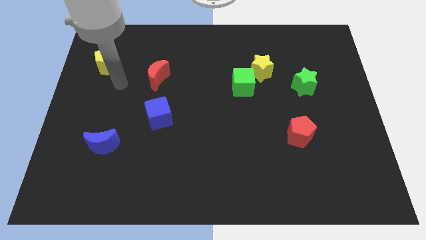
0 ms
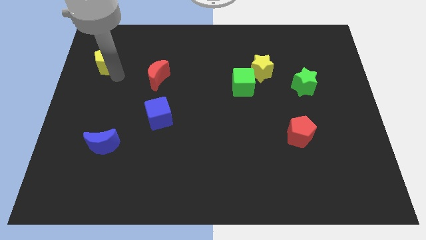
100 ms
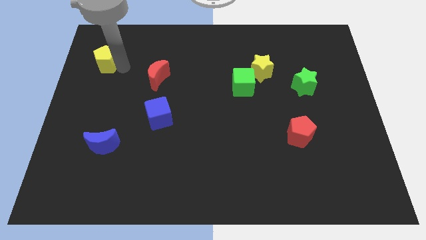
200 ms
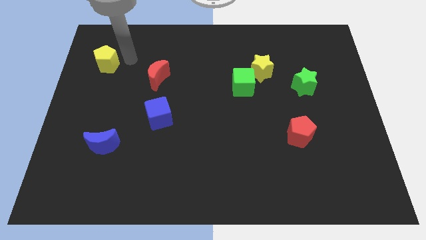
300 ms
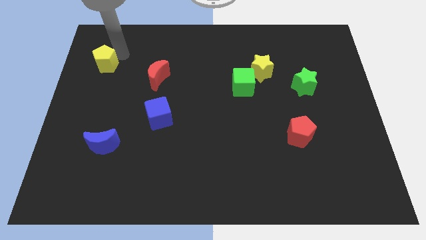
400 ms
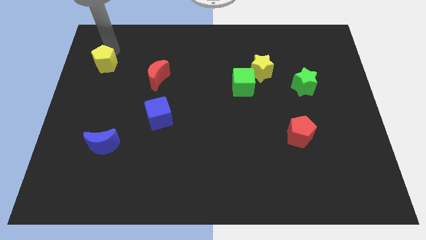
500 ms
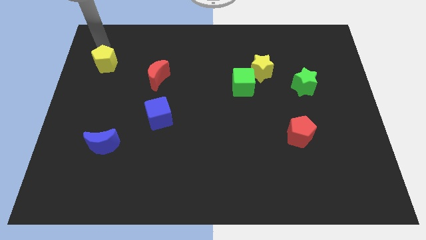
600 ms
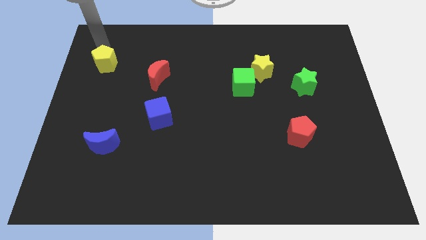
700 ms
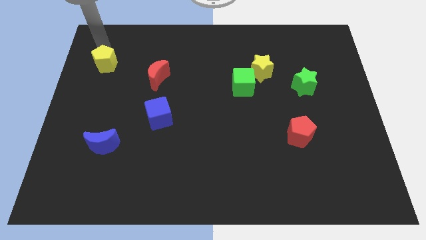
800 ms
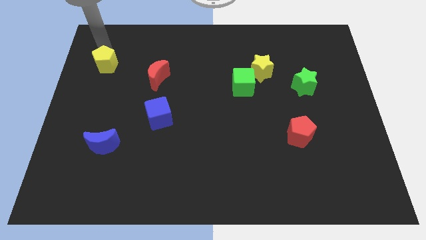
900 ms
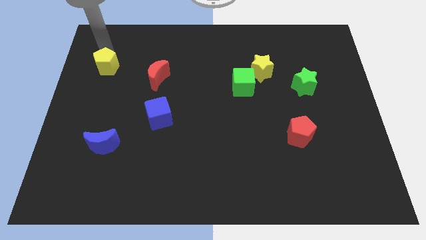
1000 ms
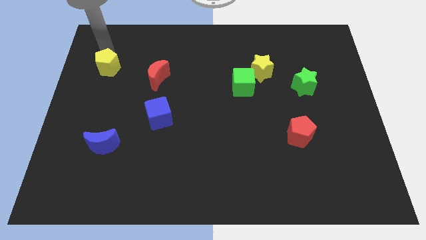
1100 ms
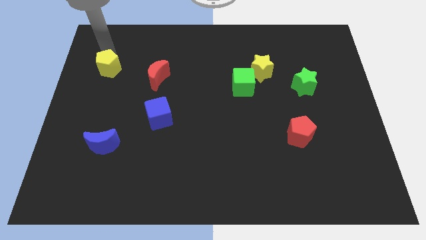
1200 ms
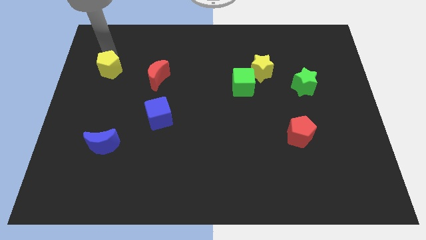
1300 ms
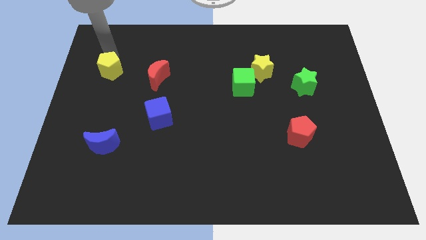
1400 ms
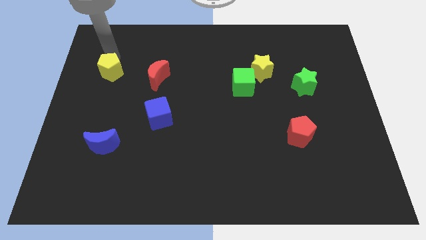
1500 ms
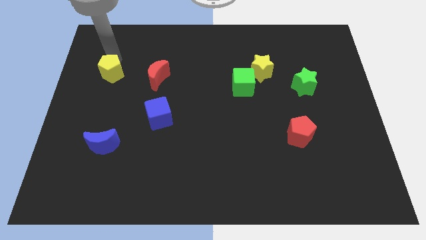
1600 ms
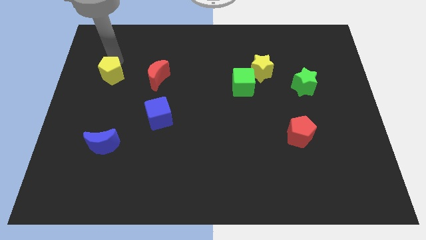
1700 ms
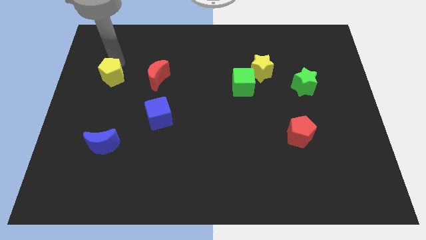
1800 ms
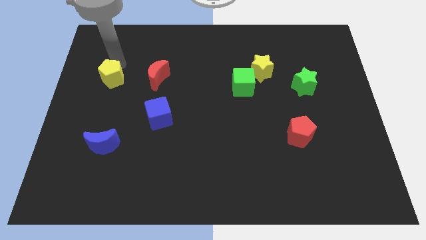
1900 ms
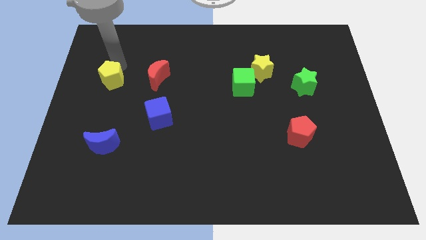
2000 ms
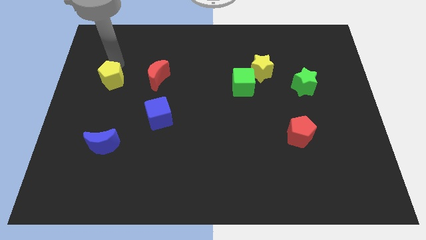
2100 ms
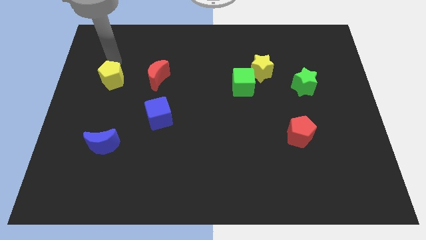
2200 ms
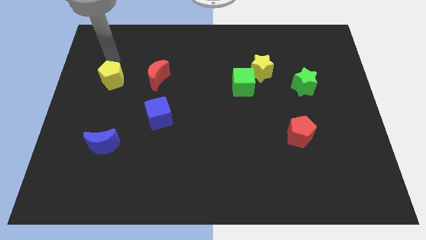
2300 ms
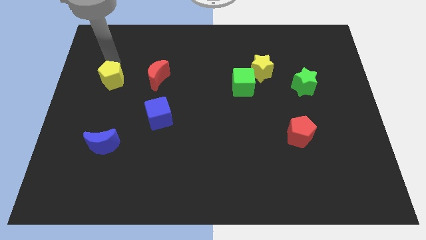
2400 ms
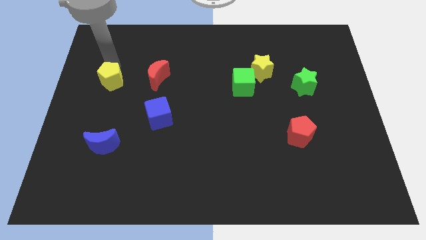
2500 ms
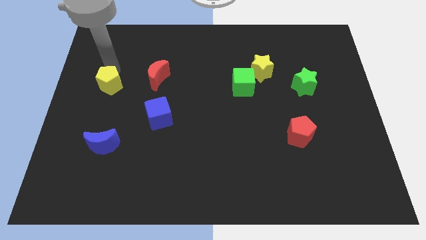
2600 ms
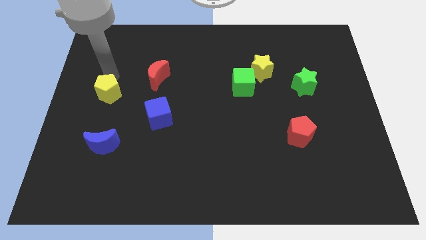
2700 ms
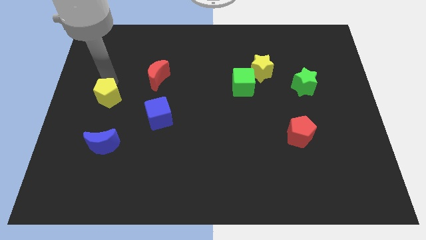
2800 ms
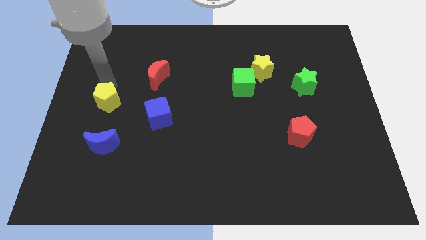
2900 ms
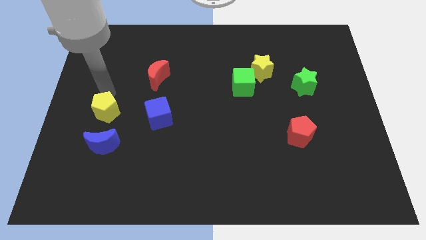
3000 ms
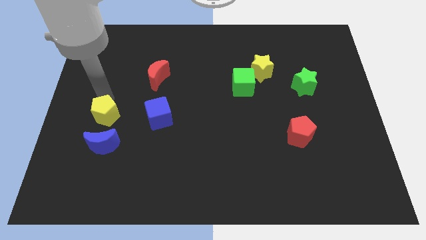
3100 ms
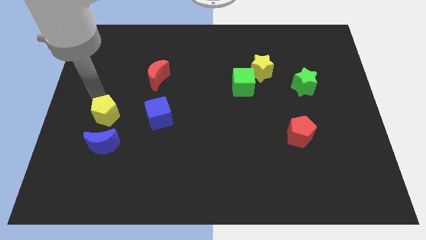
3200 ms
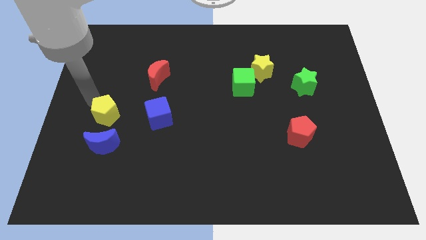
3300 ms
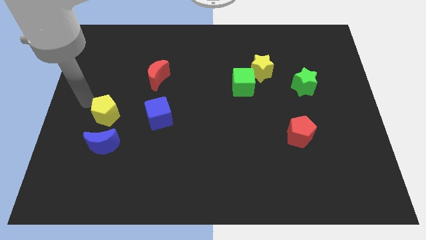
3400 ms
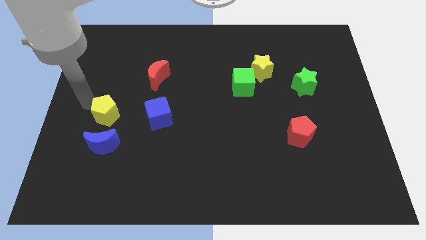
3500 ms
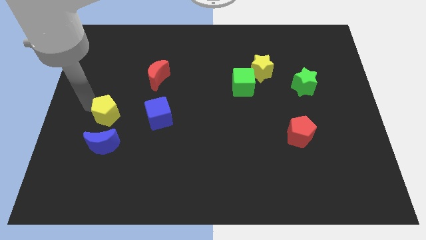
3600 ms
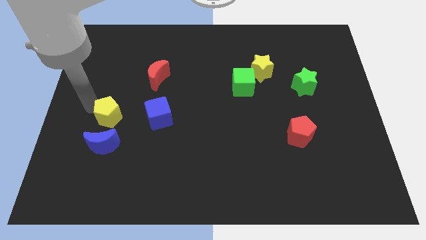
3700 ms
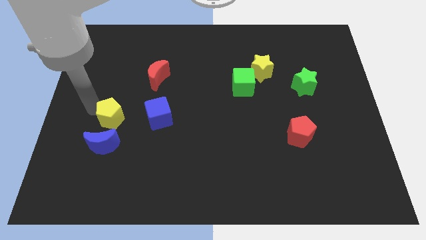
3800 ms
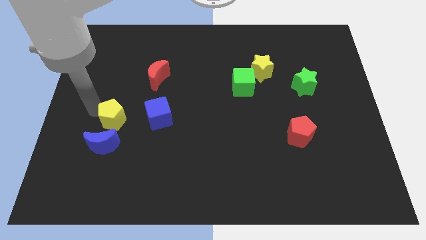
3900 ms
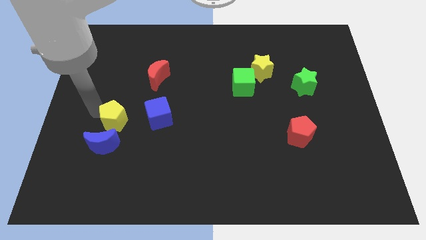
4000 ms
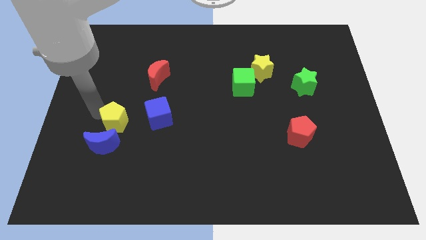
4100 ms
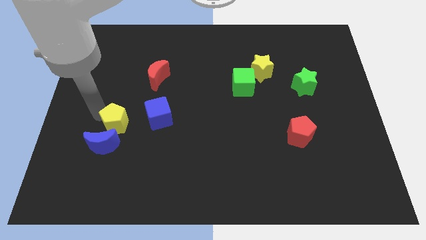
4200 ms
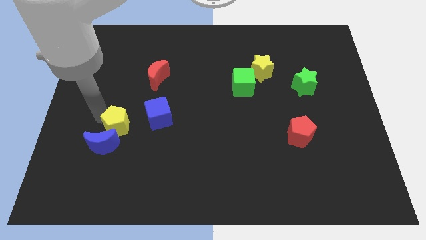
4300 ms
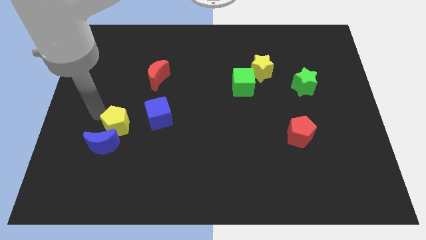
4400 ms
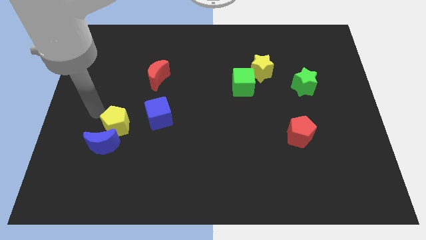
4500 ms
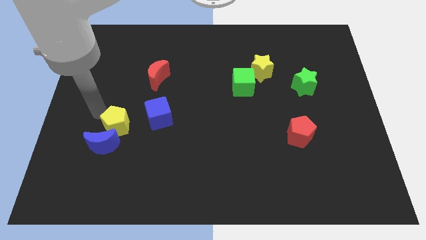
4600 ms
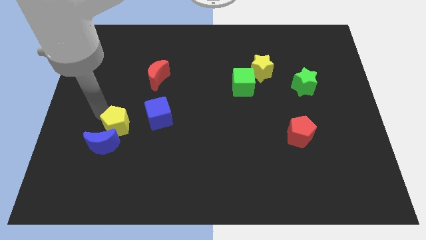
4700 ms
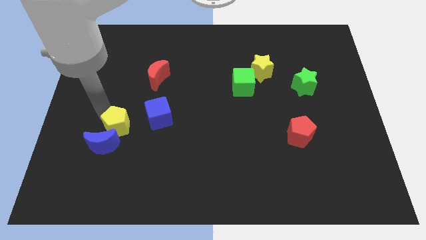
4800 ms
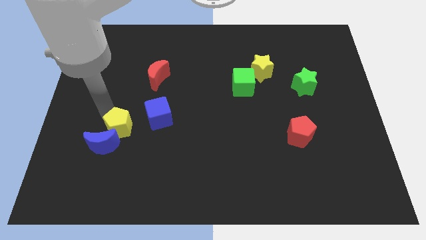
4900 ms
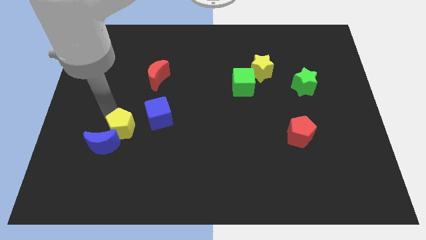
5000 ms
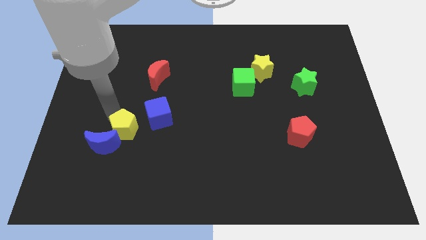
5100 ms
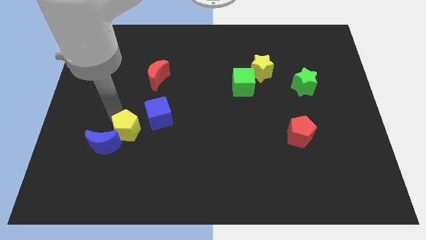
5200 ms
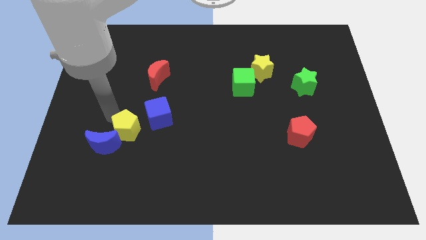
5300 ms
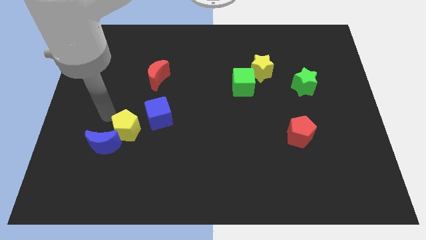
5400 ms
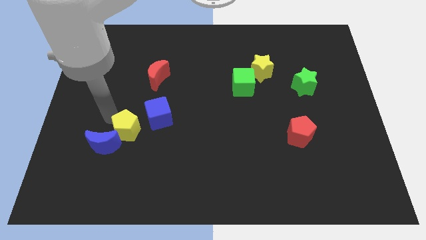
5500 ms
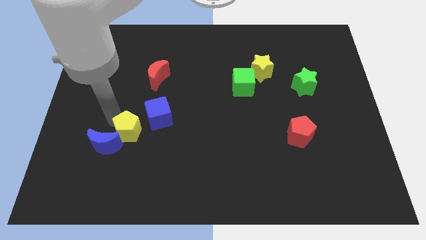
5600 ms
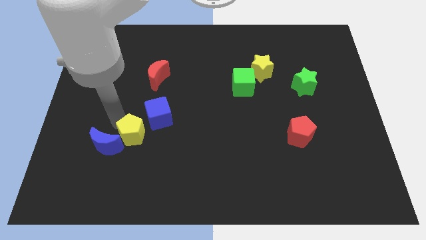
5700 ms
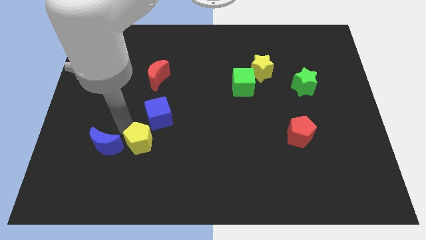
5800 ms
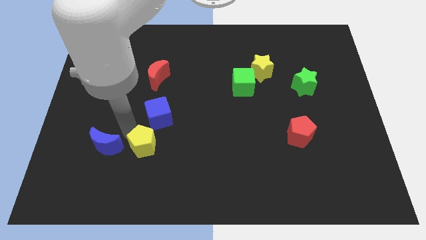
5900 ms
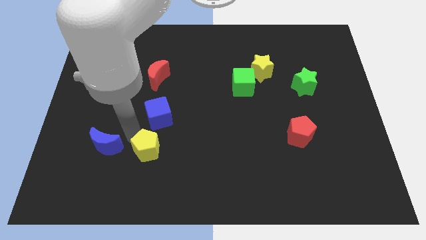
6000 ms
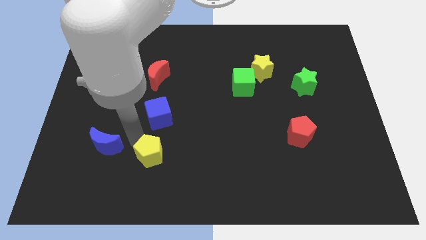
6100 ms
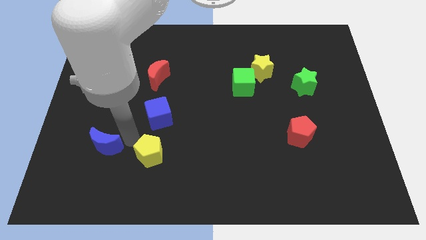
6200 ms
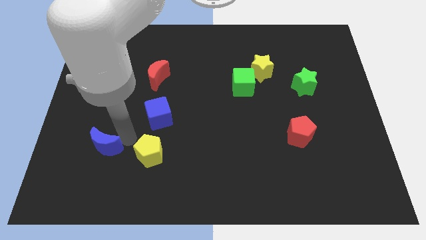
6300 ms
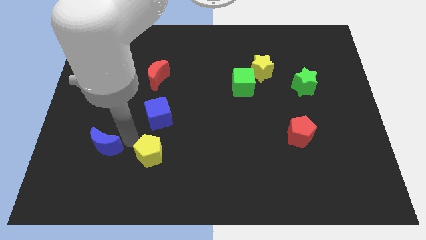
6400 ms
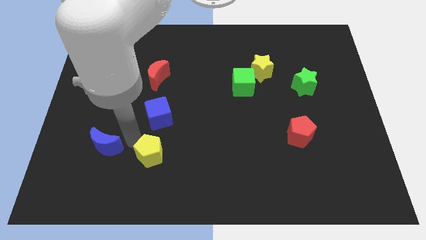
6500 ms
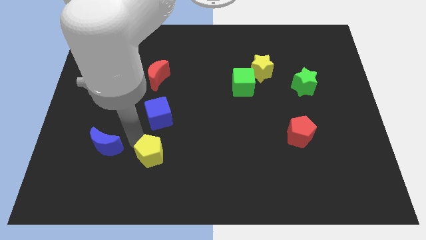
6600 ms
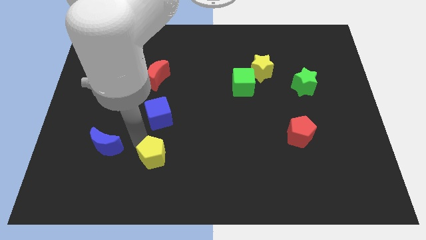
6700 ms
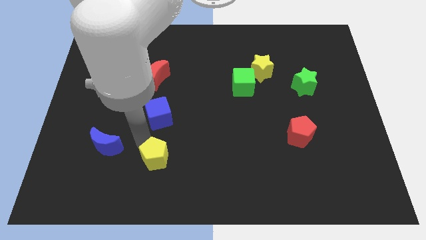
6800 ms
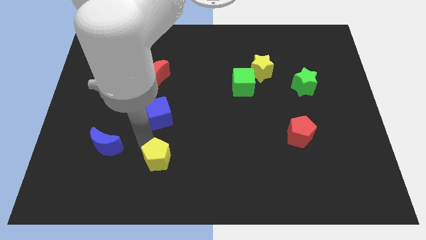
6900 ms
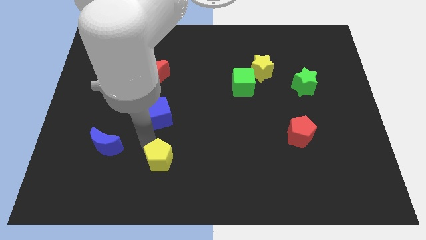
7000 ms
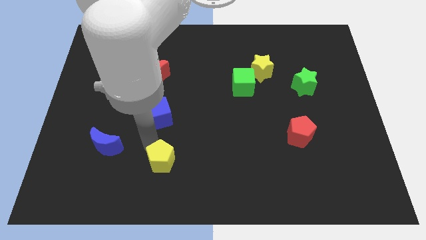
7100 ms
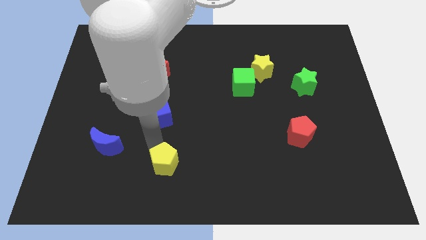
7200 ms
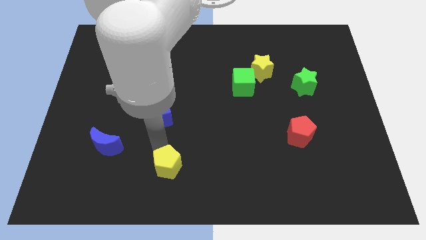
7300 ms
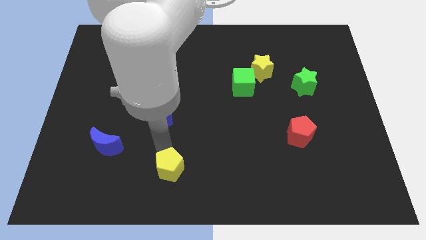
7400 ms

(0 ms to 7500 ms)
put the yellow pentagon to the bottom
